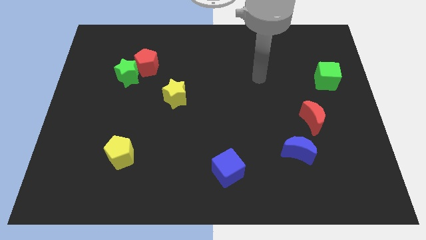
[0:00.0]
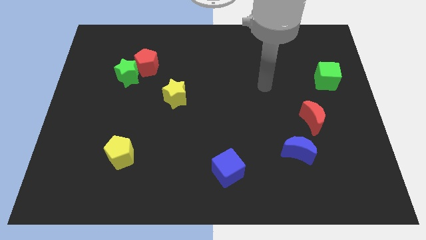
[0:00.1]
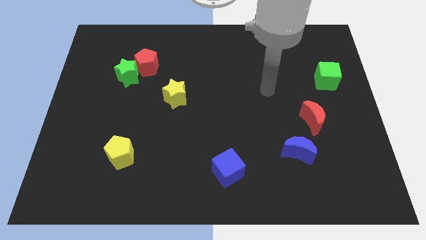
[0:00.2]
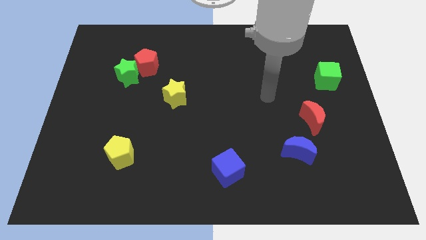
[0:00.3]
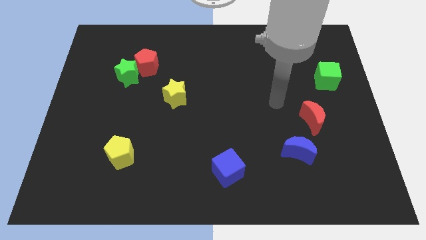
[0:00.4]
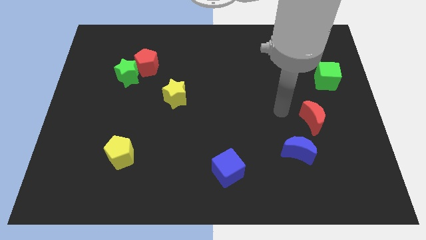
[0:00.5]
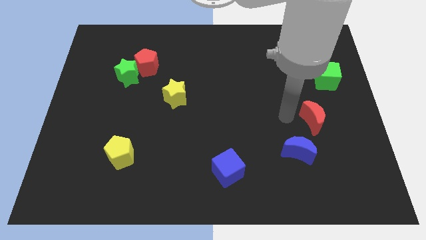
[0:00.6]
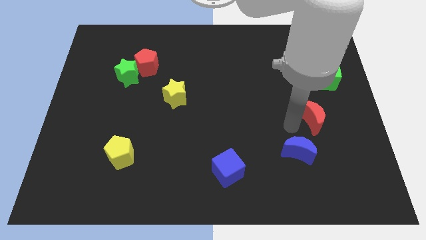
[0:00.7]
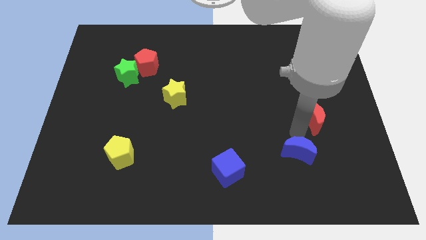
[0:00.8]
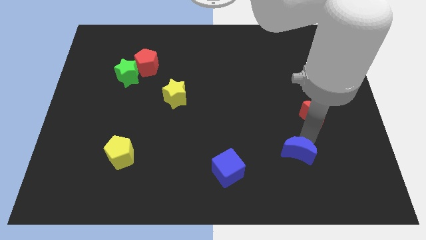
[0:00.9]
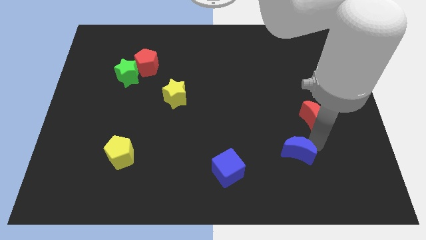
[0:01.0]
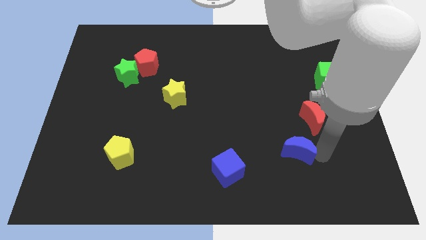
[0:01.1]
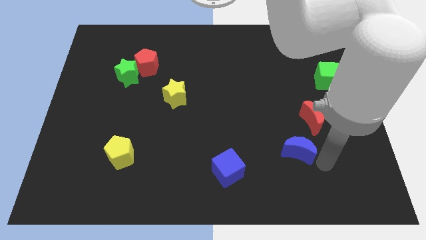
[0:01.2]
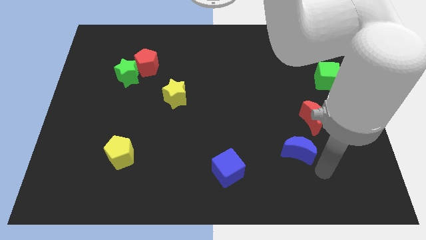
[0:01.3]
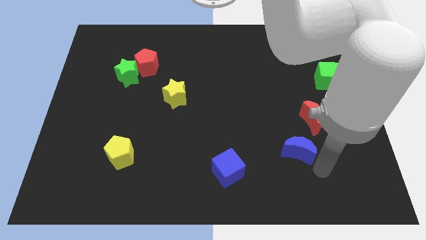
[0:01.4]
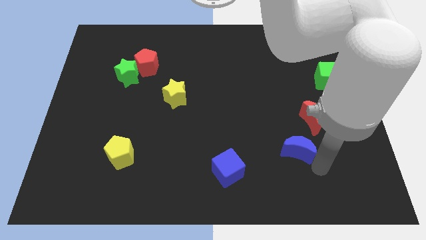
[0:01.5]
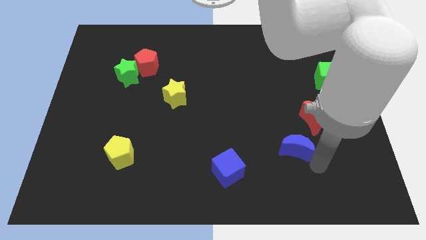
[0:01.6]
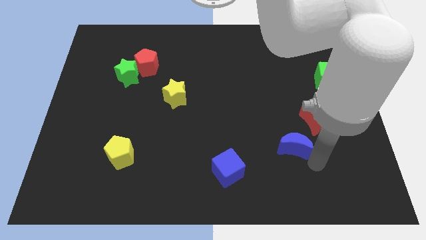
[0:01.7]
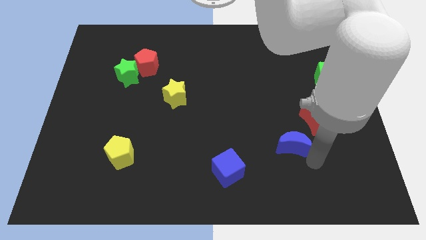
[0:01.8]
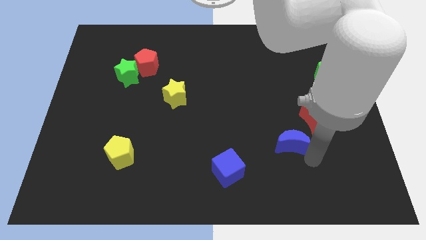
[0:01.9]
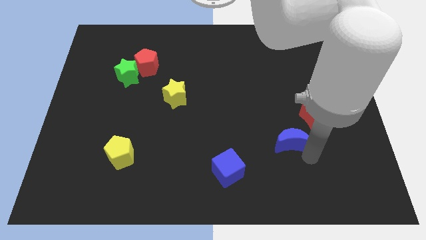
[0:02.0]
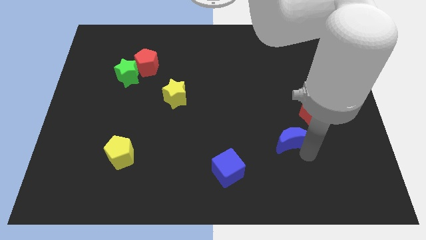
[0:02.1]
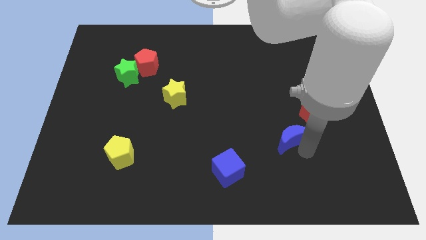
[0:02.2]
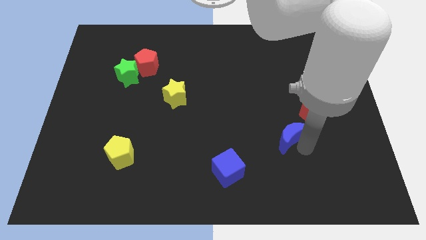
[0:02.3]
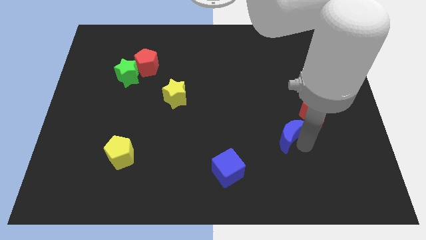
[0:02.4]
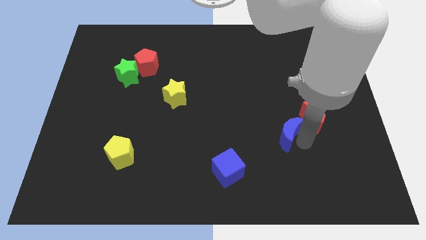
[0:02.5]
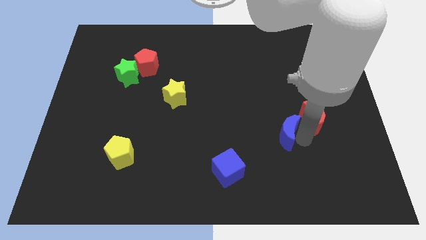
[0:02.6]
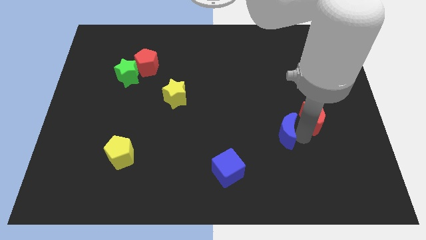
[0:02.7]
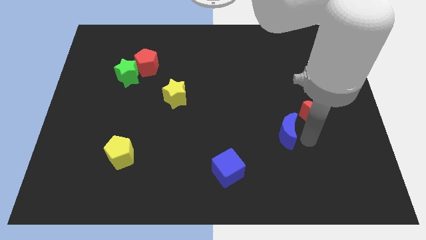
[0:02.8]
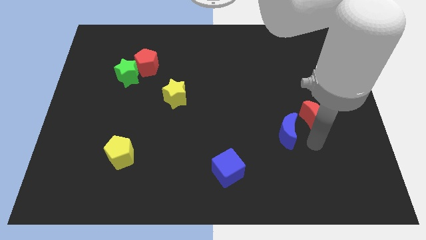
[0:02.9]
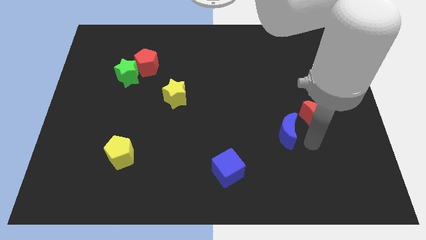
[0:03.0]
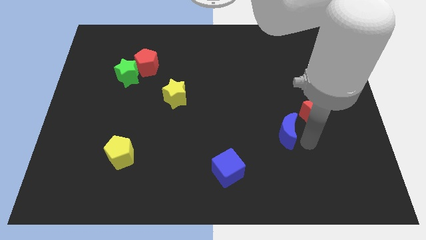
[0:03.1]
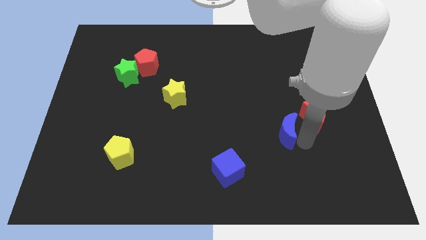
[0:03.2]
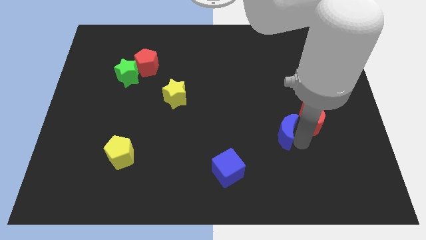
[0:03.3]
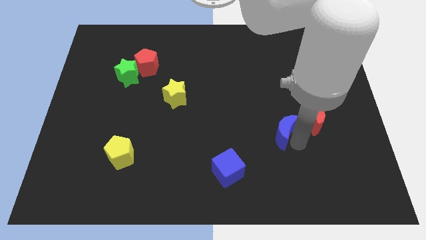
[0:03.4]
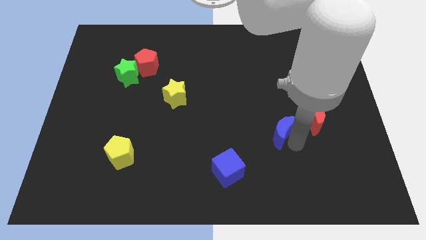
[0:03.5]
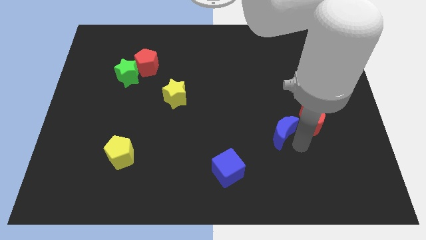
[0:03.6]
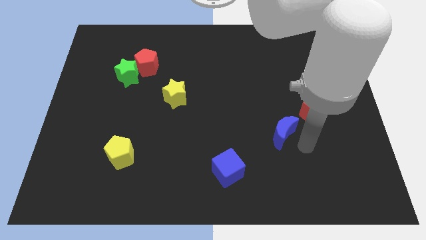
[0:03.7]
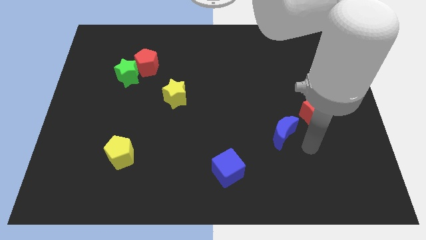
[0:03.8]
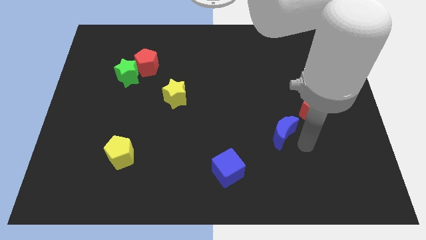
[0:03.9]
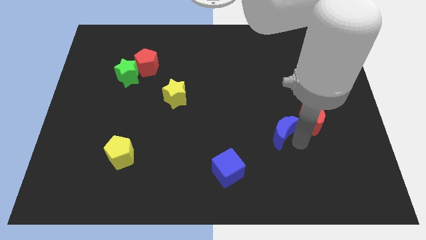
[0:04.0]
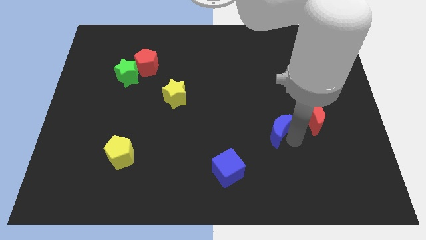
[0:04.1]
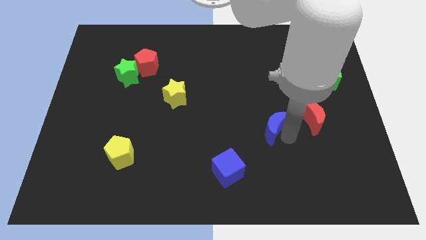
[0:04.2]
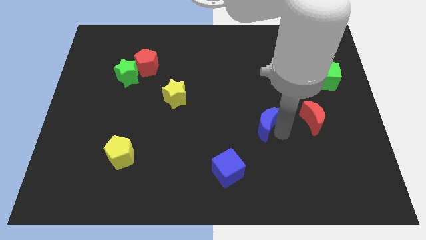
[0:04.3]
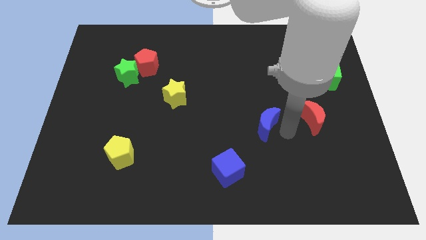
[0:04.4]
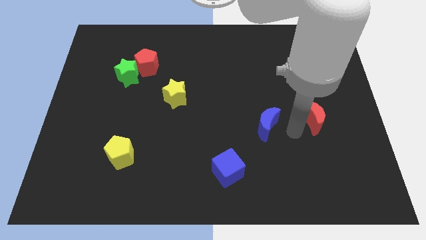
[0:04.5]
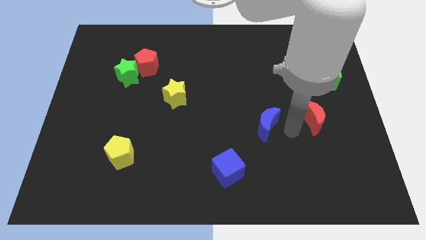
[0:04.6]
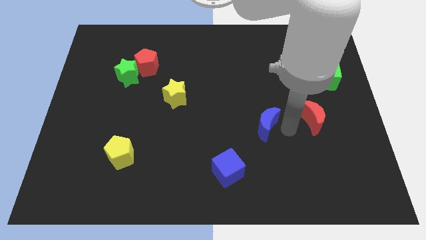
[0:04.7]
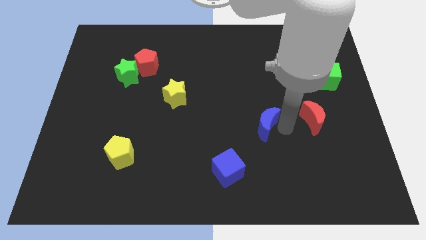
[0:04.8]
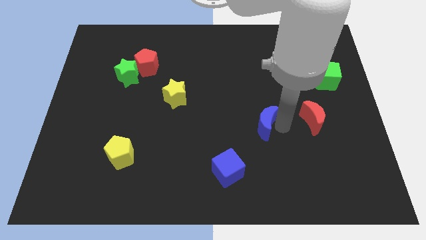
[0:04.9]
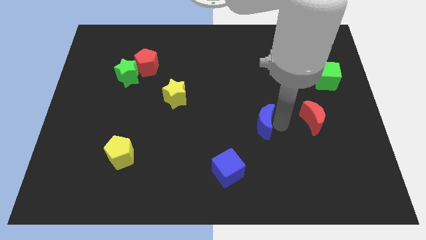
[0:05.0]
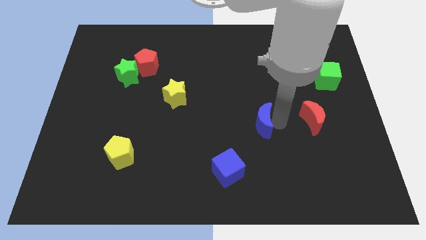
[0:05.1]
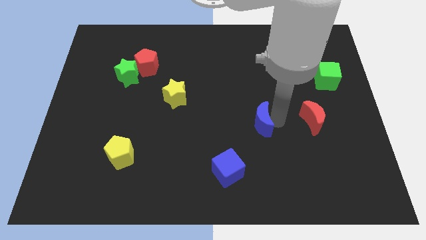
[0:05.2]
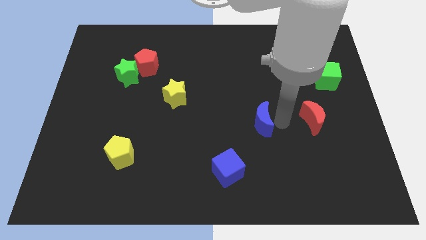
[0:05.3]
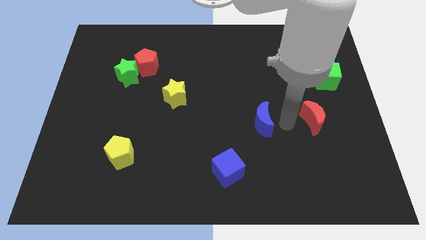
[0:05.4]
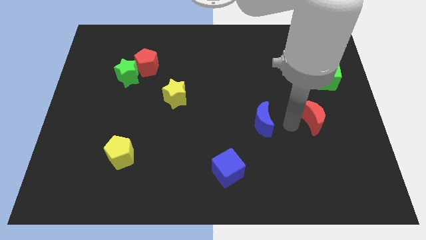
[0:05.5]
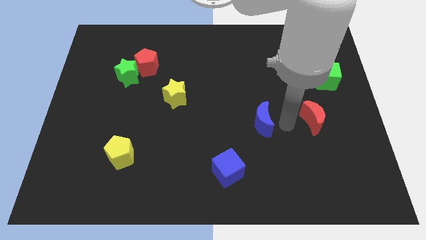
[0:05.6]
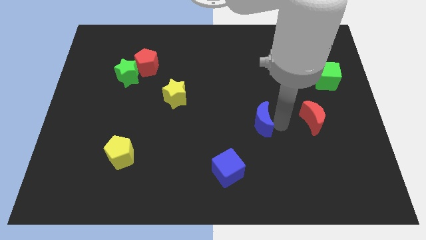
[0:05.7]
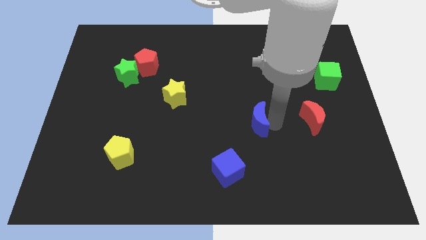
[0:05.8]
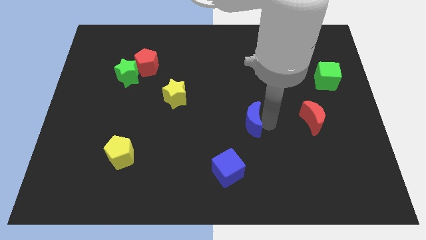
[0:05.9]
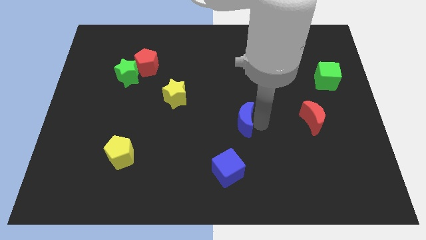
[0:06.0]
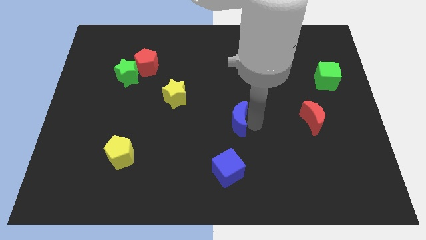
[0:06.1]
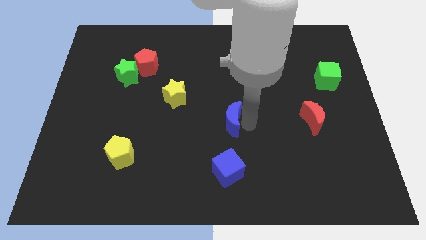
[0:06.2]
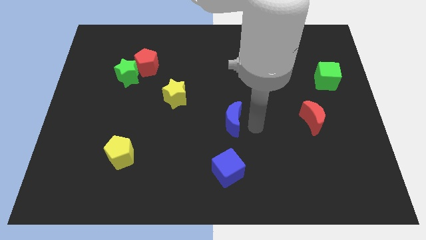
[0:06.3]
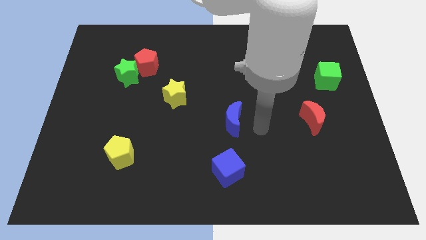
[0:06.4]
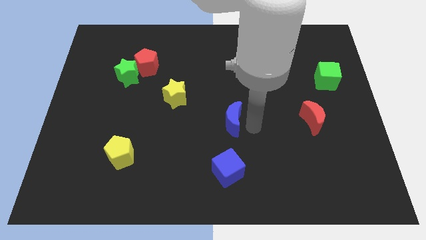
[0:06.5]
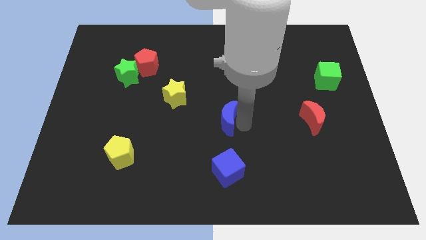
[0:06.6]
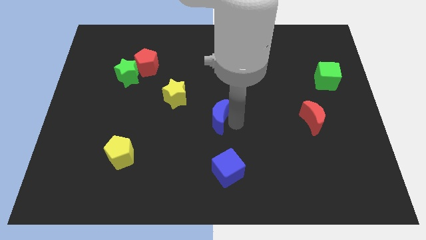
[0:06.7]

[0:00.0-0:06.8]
put the blue moon diagonally down and to the right of the yellow star
